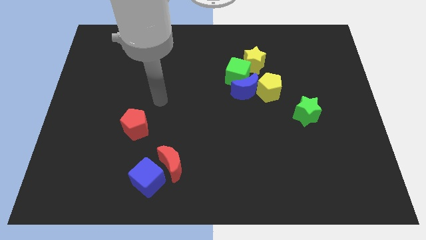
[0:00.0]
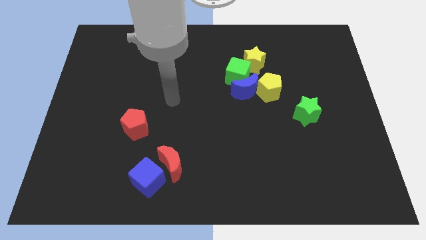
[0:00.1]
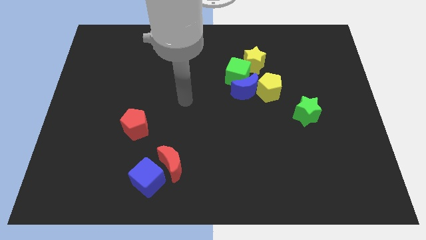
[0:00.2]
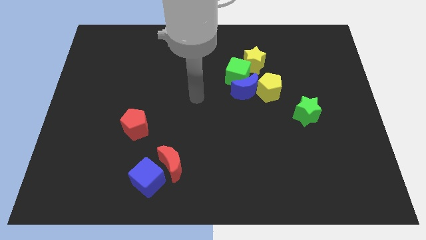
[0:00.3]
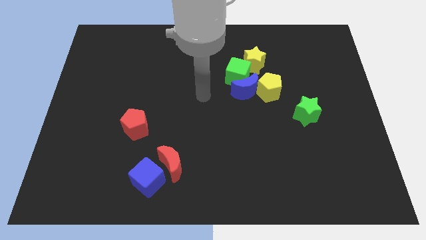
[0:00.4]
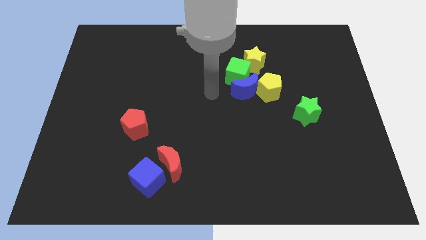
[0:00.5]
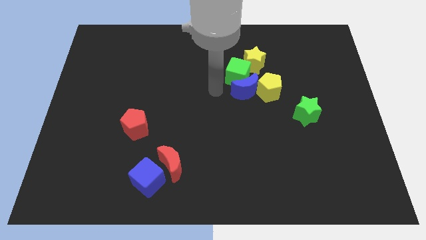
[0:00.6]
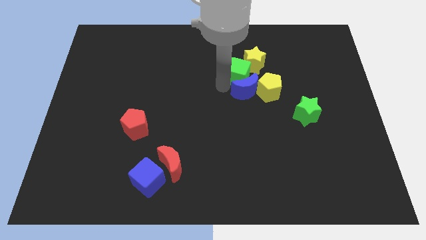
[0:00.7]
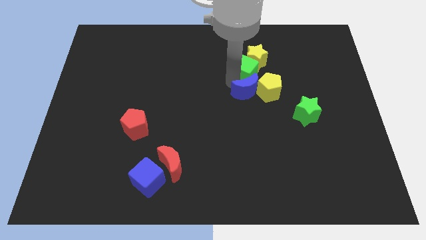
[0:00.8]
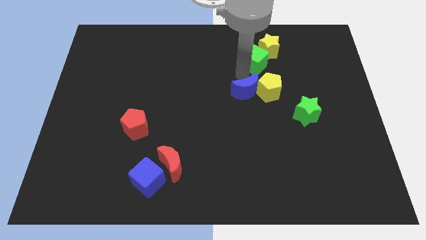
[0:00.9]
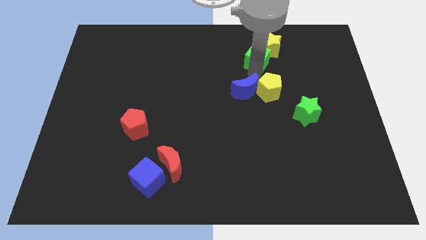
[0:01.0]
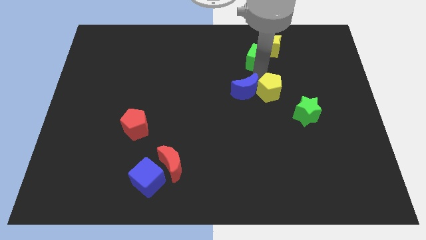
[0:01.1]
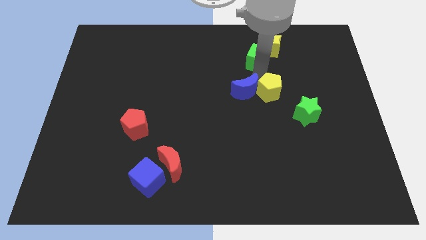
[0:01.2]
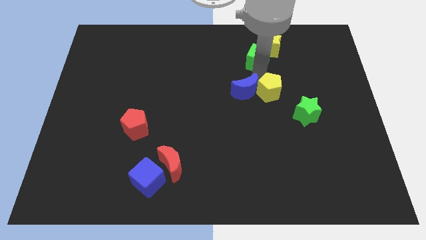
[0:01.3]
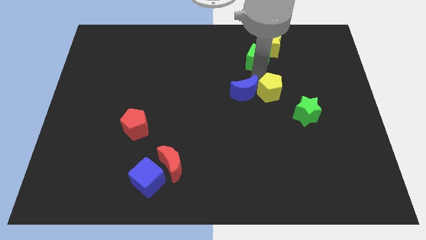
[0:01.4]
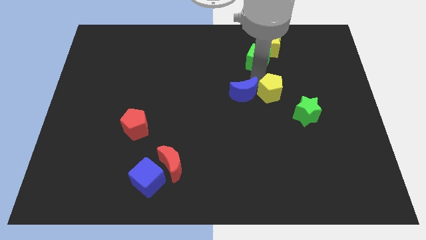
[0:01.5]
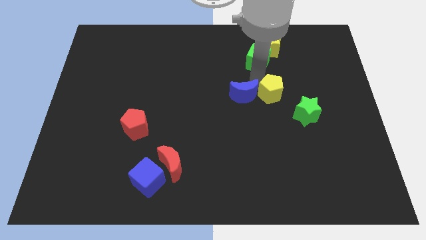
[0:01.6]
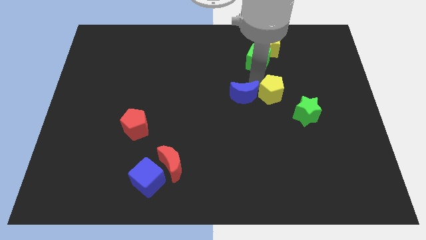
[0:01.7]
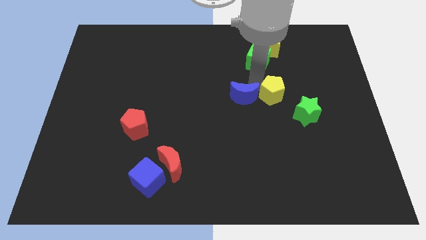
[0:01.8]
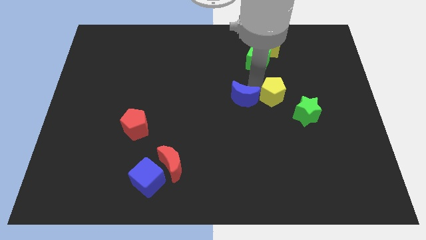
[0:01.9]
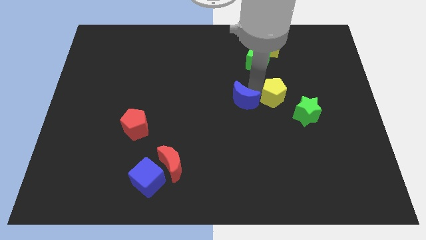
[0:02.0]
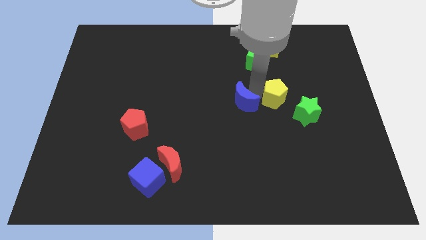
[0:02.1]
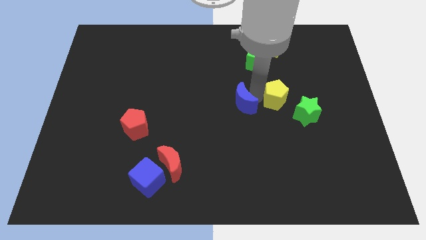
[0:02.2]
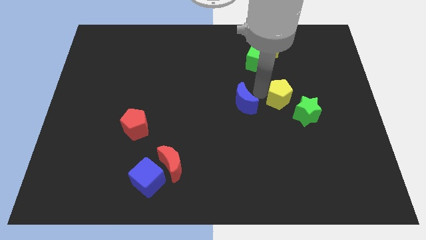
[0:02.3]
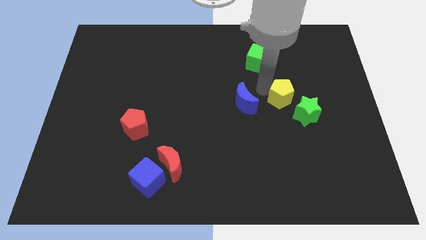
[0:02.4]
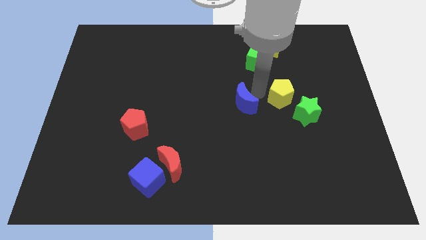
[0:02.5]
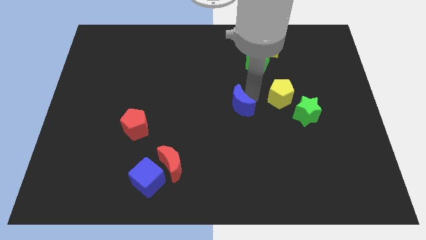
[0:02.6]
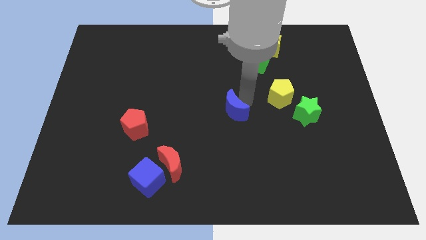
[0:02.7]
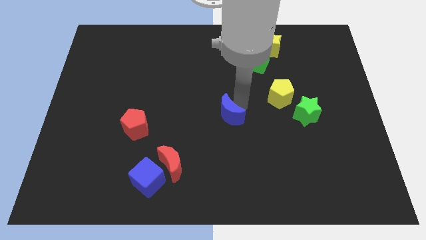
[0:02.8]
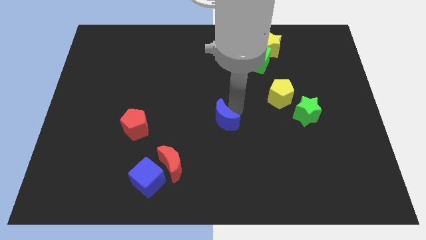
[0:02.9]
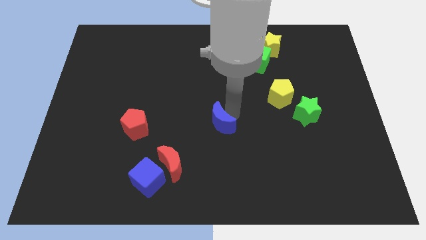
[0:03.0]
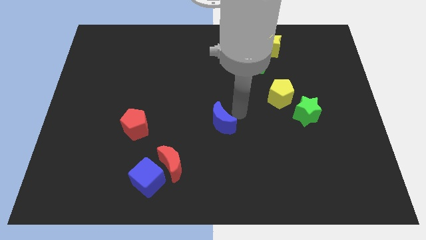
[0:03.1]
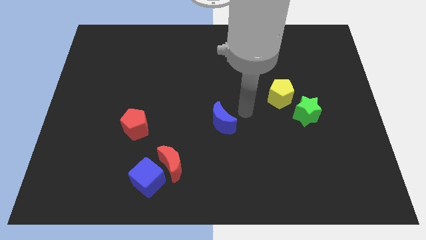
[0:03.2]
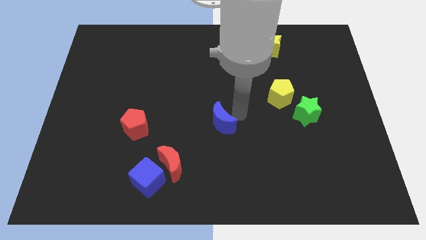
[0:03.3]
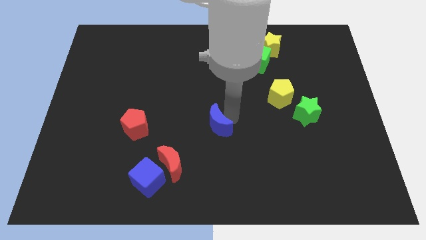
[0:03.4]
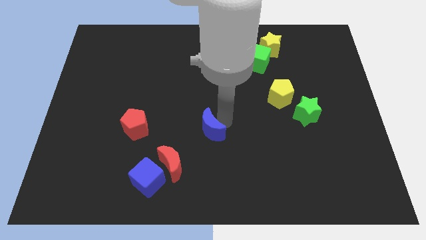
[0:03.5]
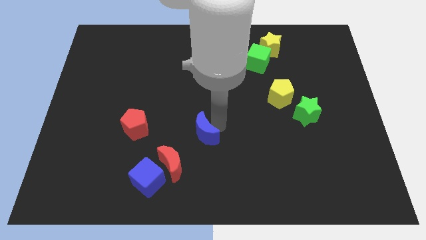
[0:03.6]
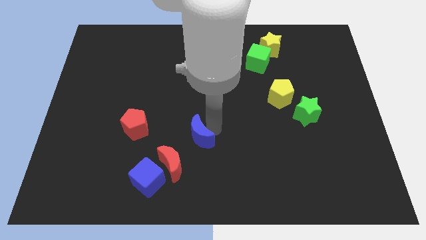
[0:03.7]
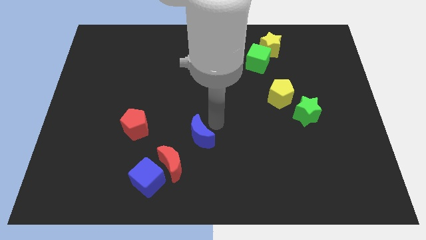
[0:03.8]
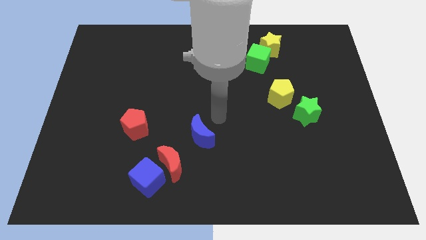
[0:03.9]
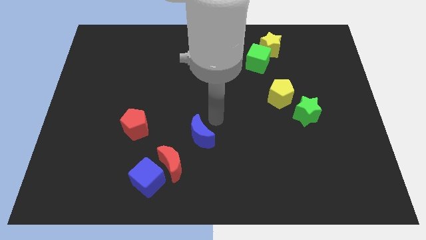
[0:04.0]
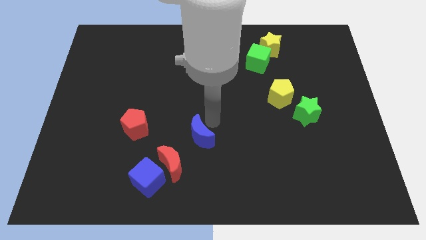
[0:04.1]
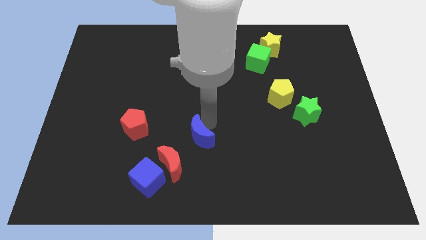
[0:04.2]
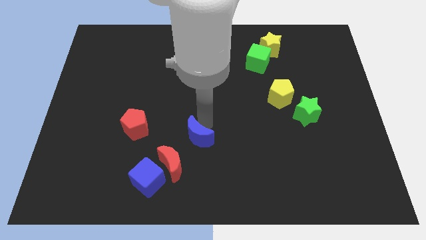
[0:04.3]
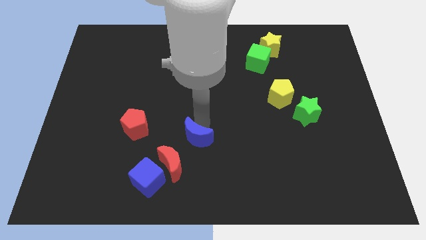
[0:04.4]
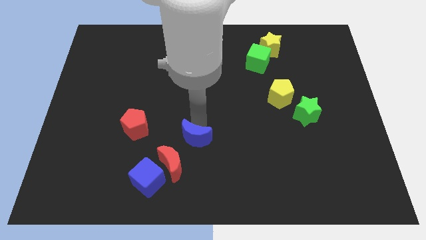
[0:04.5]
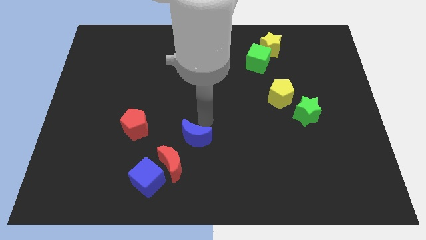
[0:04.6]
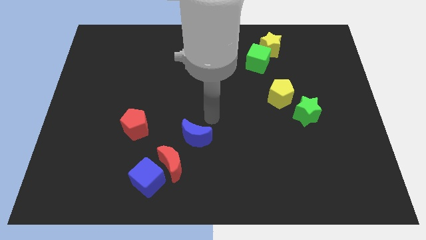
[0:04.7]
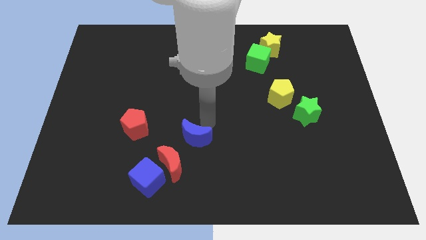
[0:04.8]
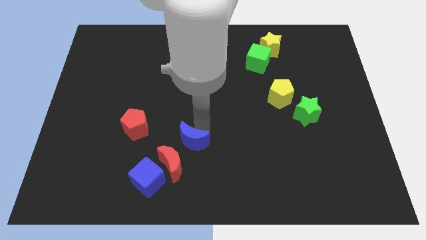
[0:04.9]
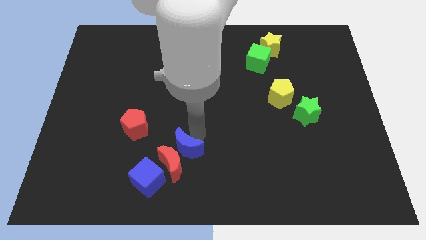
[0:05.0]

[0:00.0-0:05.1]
slide the blue moon close to the red moon

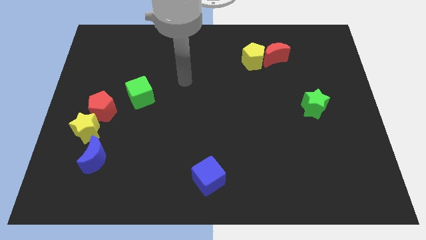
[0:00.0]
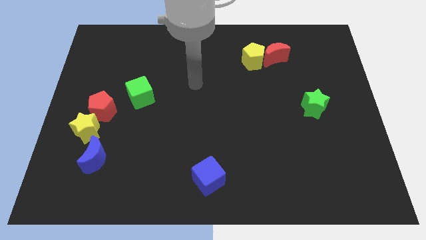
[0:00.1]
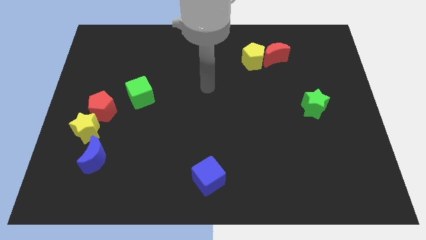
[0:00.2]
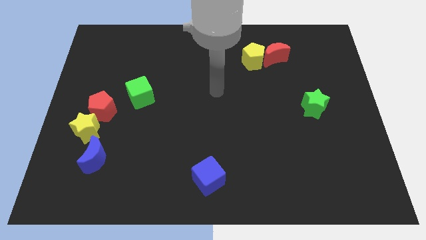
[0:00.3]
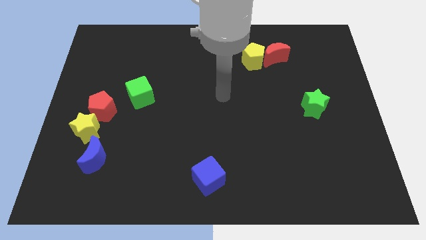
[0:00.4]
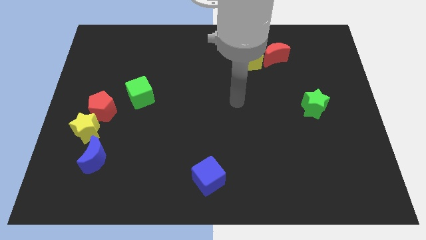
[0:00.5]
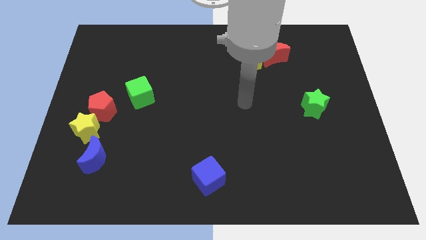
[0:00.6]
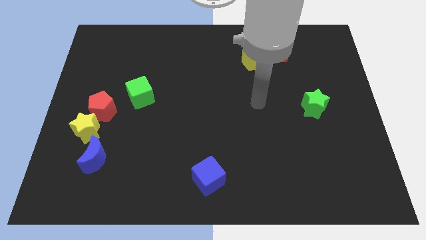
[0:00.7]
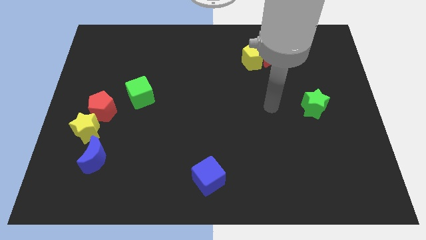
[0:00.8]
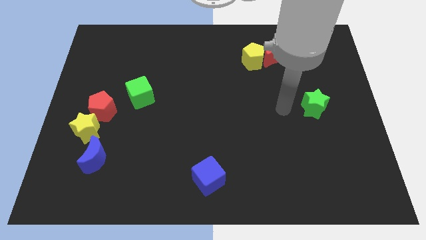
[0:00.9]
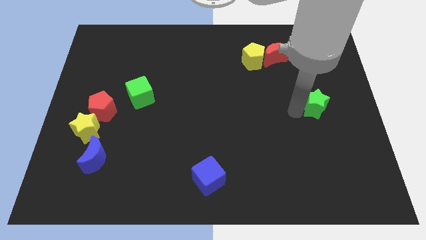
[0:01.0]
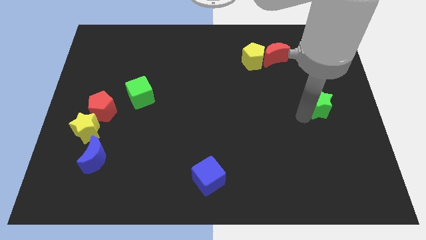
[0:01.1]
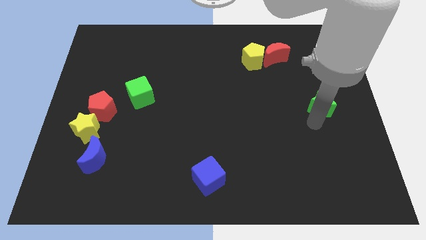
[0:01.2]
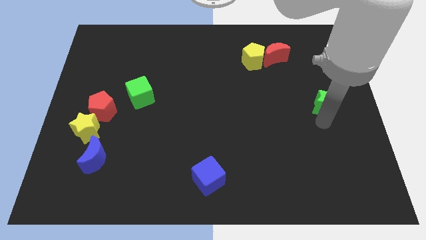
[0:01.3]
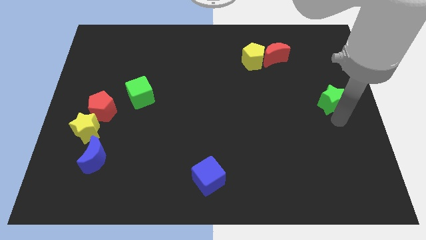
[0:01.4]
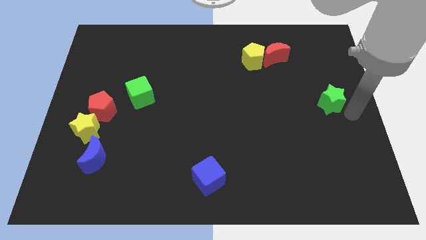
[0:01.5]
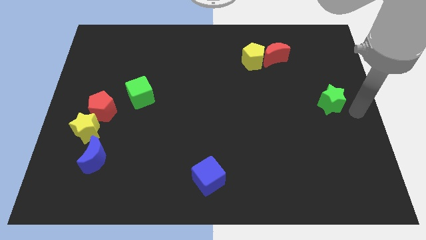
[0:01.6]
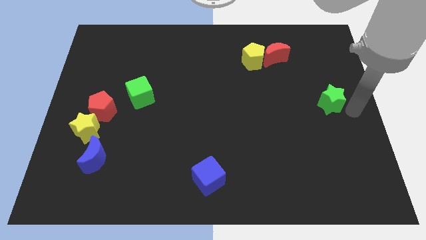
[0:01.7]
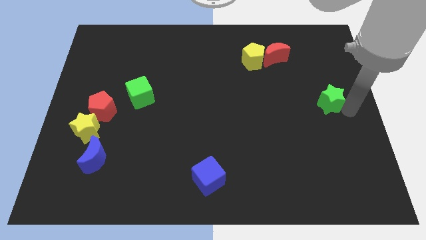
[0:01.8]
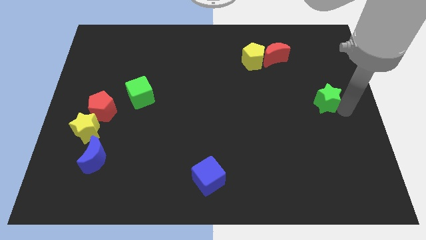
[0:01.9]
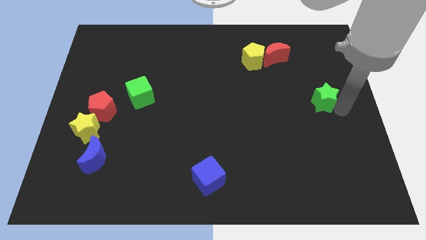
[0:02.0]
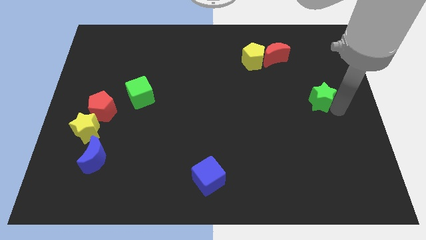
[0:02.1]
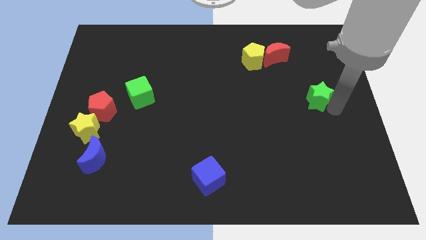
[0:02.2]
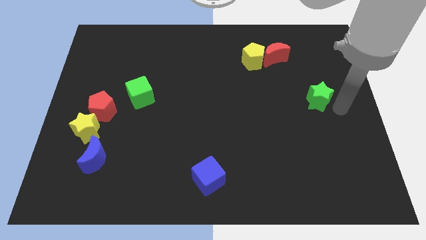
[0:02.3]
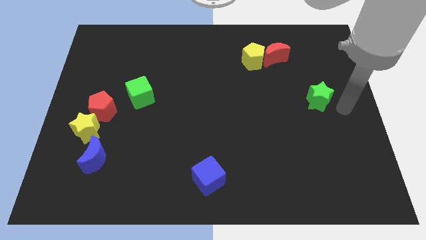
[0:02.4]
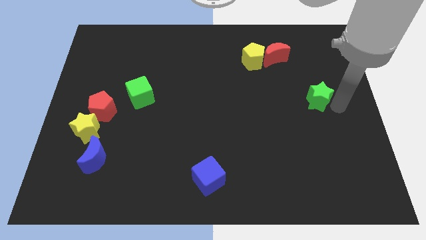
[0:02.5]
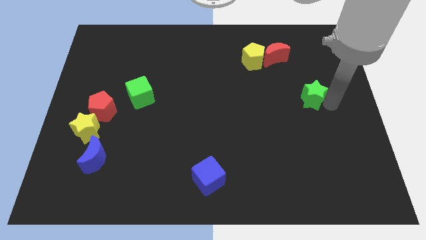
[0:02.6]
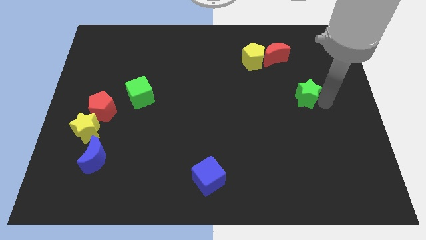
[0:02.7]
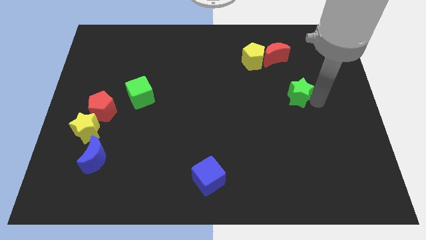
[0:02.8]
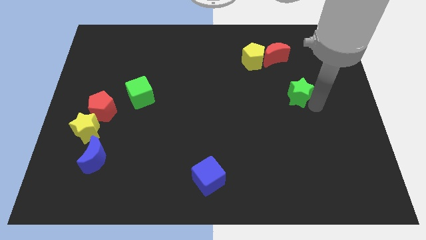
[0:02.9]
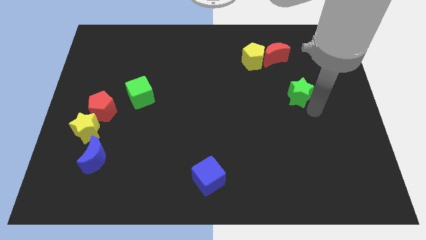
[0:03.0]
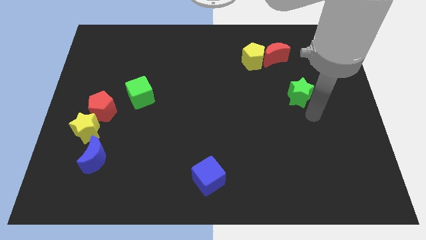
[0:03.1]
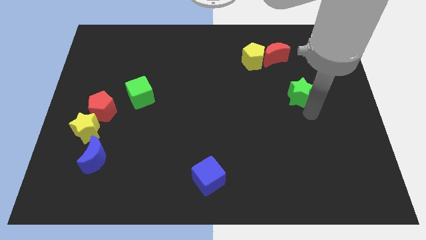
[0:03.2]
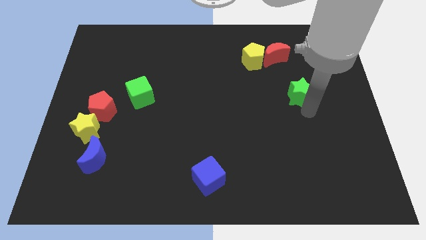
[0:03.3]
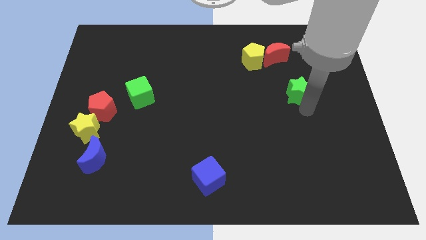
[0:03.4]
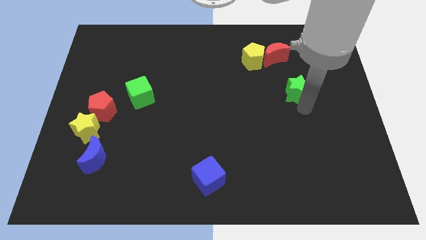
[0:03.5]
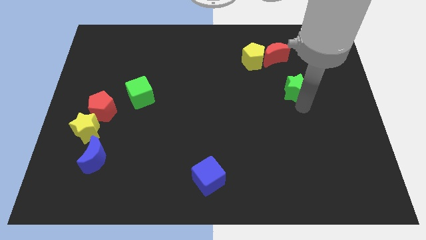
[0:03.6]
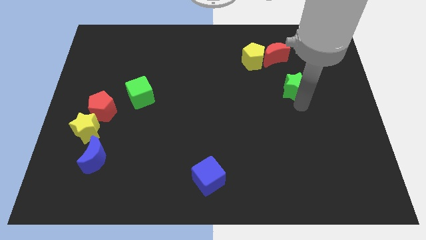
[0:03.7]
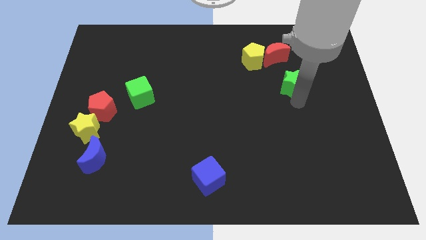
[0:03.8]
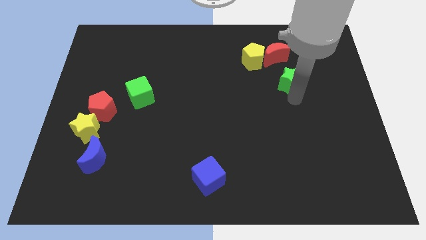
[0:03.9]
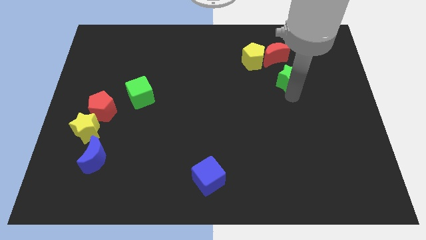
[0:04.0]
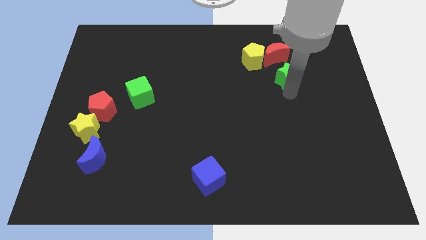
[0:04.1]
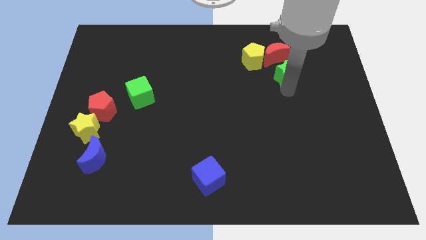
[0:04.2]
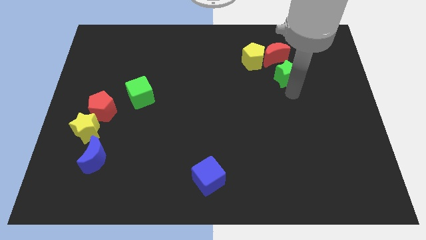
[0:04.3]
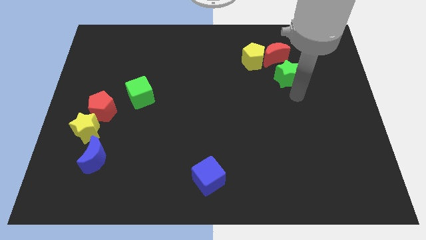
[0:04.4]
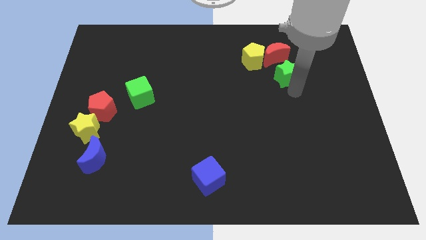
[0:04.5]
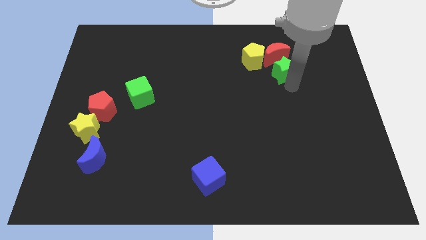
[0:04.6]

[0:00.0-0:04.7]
slide the green star next to the red moon
